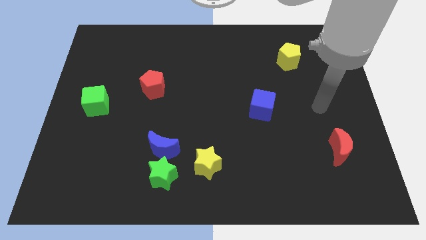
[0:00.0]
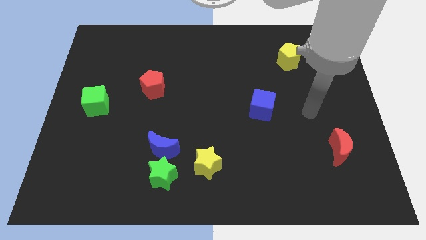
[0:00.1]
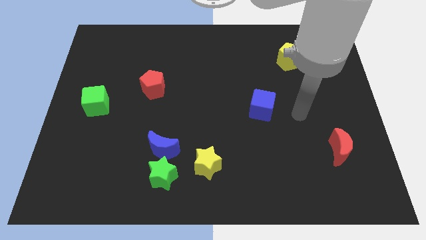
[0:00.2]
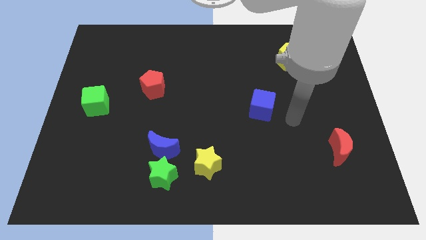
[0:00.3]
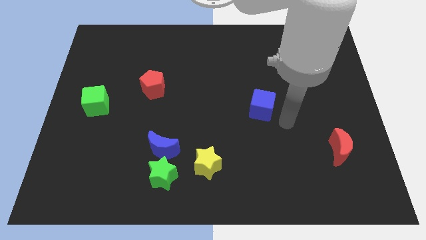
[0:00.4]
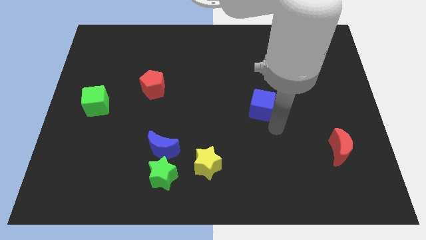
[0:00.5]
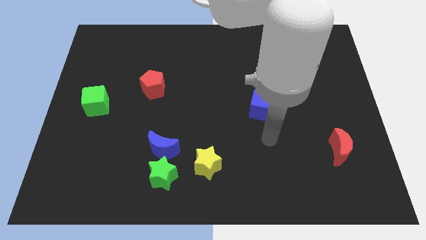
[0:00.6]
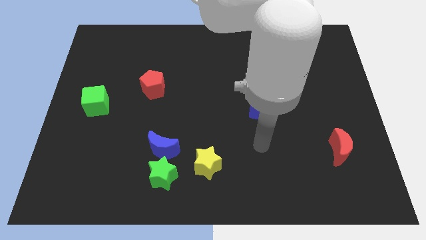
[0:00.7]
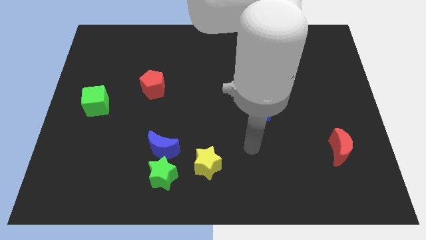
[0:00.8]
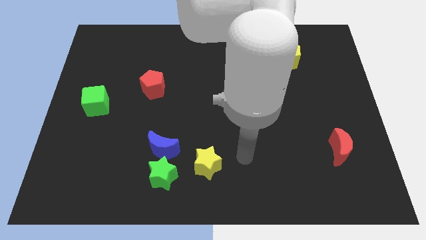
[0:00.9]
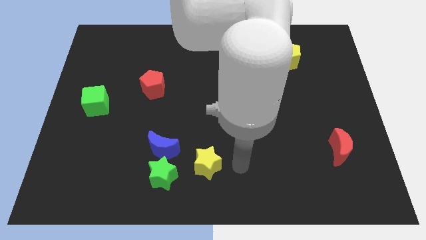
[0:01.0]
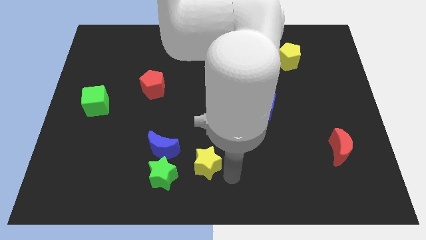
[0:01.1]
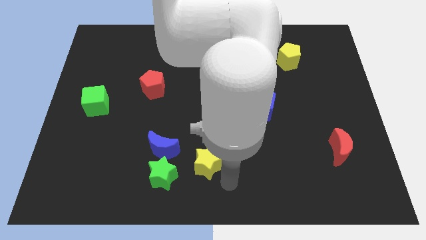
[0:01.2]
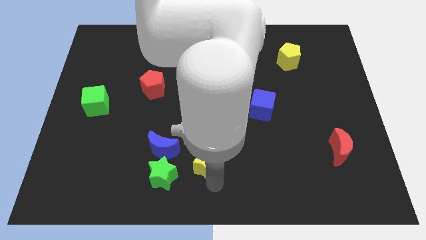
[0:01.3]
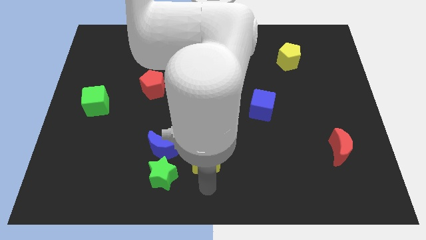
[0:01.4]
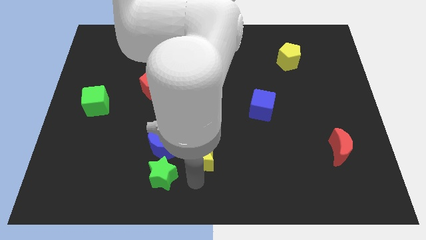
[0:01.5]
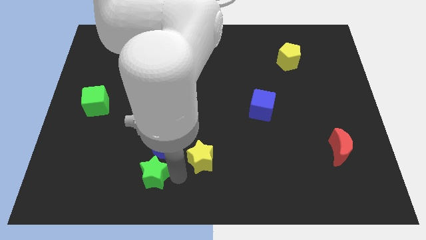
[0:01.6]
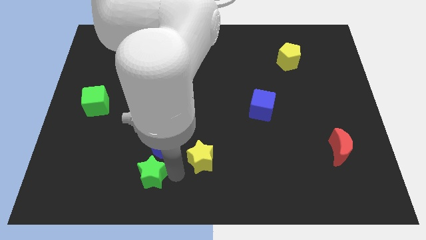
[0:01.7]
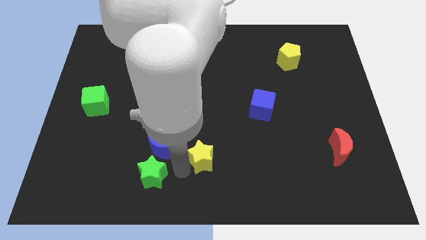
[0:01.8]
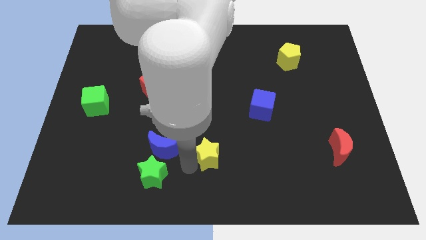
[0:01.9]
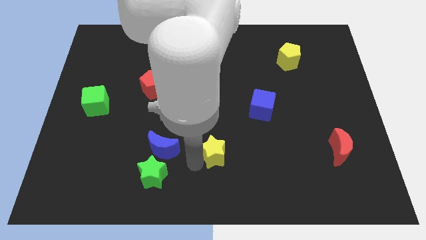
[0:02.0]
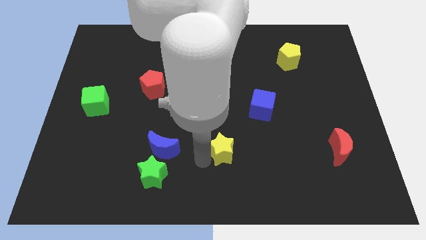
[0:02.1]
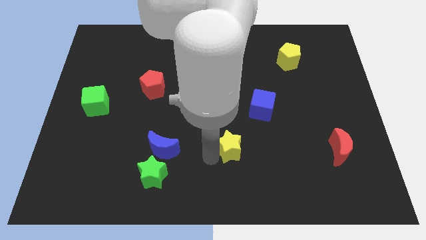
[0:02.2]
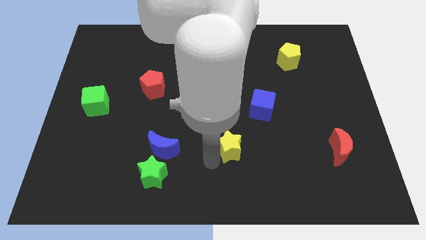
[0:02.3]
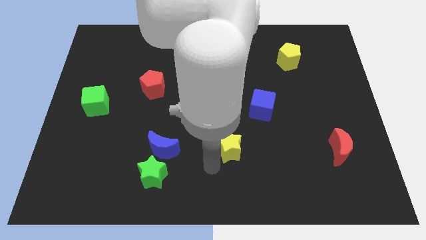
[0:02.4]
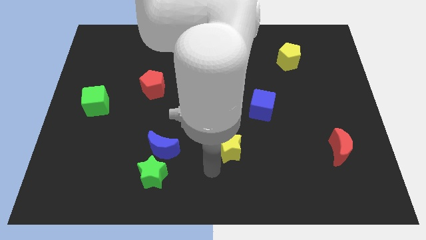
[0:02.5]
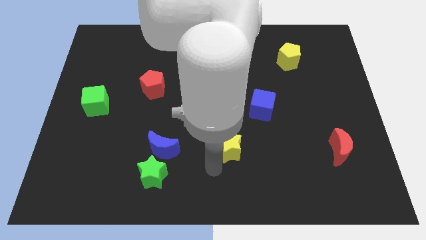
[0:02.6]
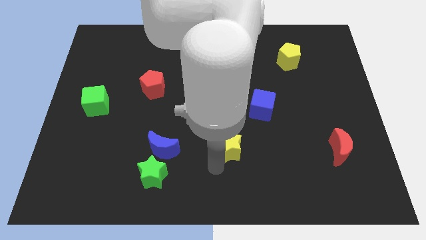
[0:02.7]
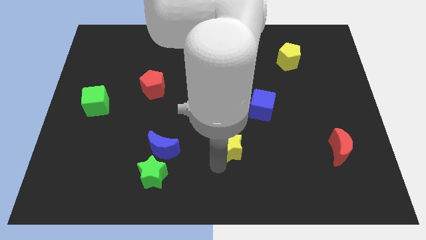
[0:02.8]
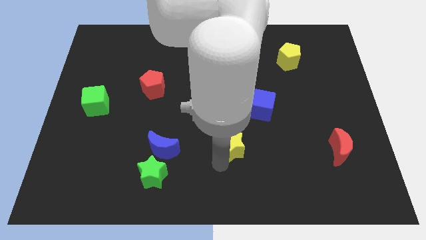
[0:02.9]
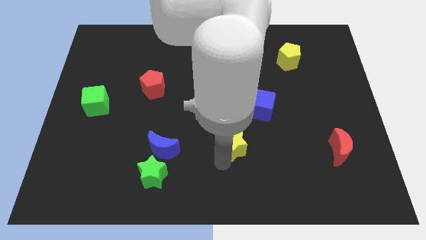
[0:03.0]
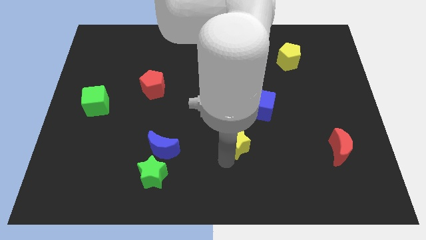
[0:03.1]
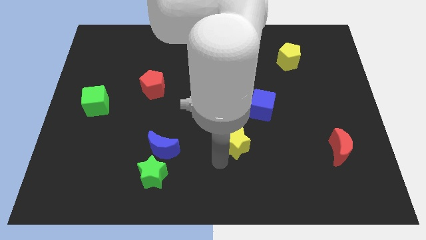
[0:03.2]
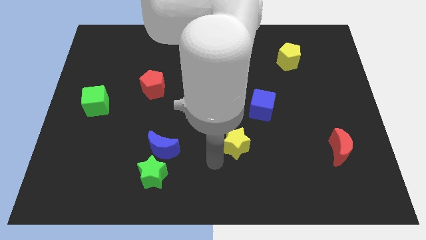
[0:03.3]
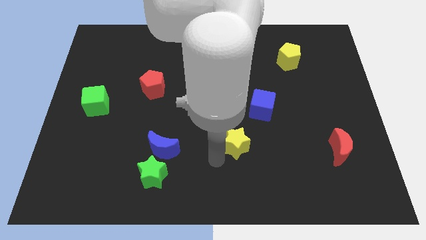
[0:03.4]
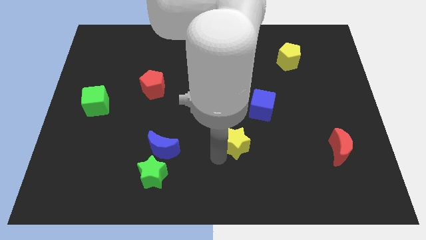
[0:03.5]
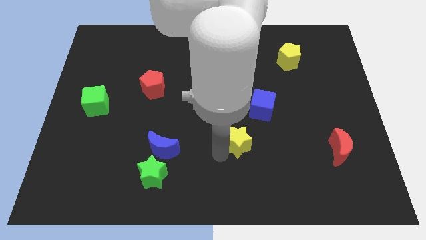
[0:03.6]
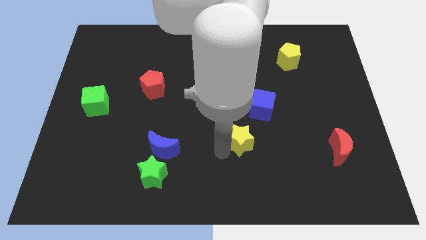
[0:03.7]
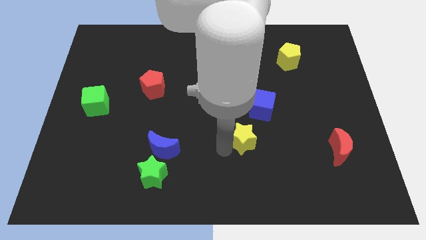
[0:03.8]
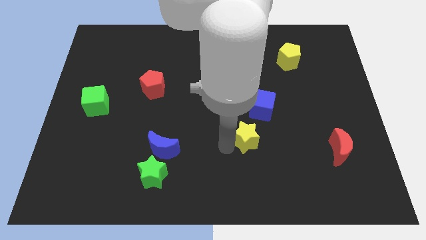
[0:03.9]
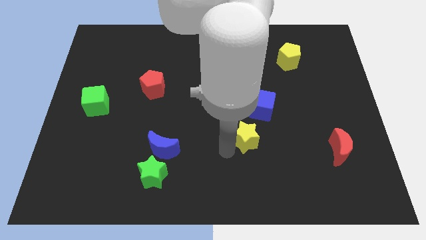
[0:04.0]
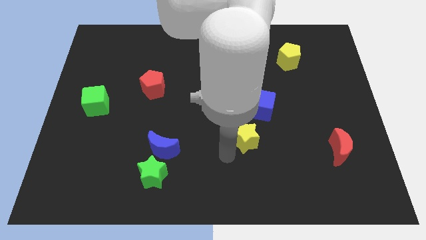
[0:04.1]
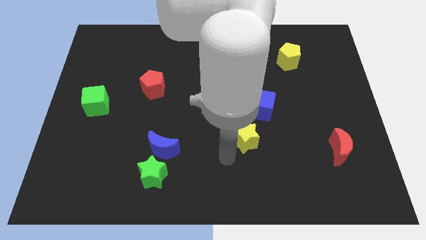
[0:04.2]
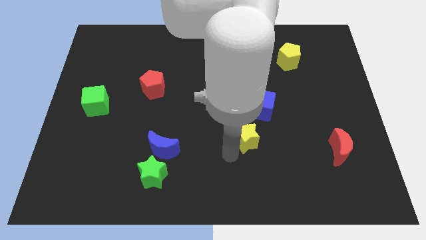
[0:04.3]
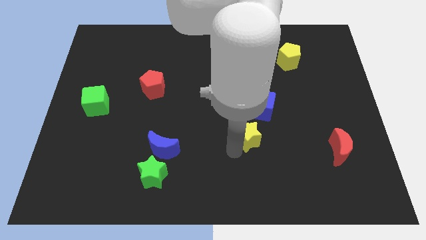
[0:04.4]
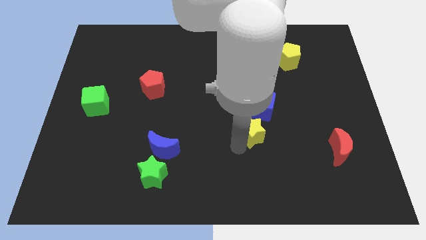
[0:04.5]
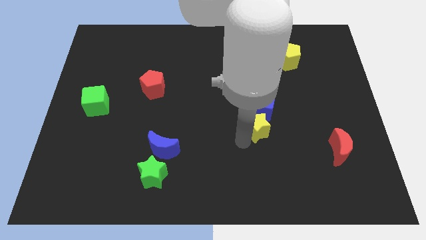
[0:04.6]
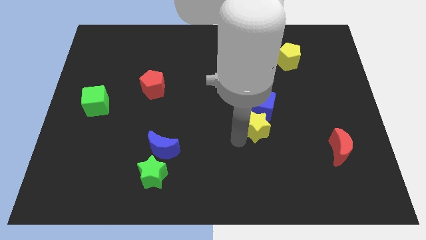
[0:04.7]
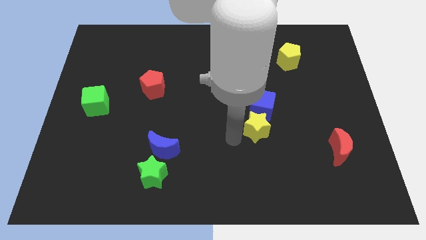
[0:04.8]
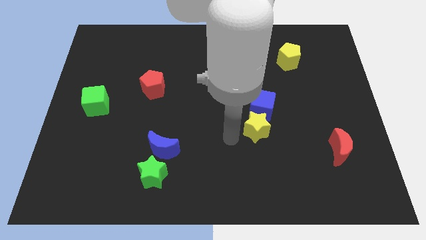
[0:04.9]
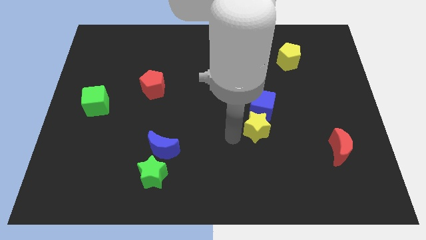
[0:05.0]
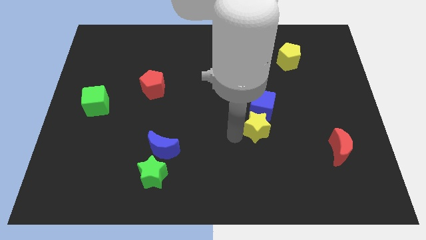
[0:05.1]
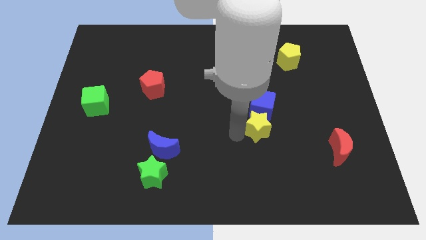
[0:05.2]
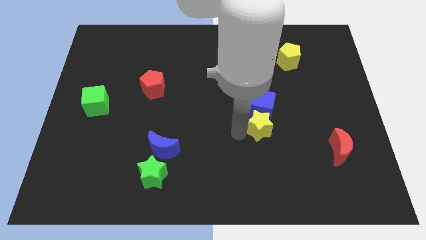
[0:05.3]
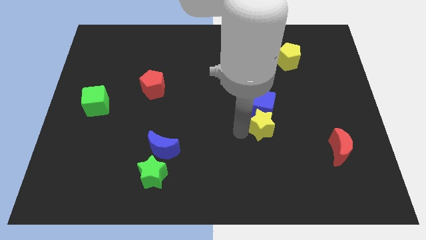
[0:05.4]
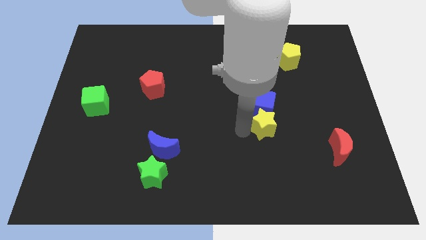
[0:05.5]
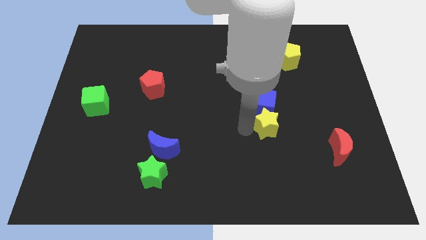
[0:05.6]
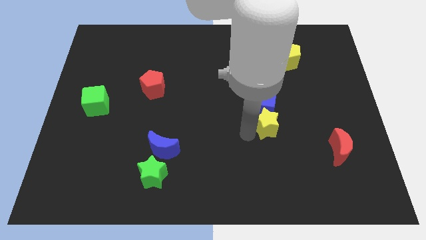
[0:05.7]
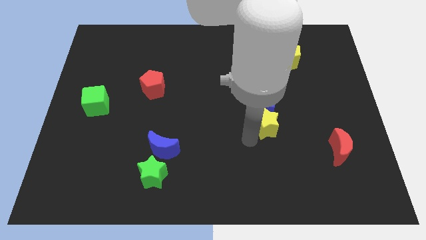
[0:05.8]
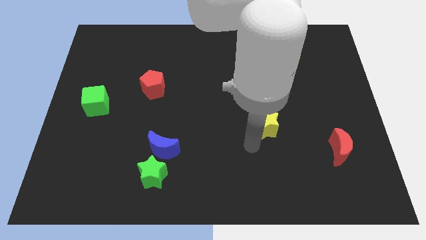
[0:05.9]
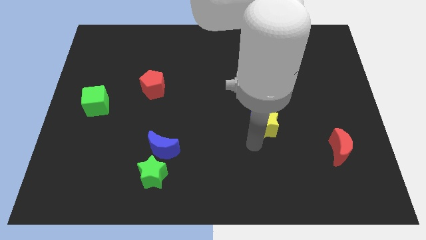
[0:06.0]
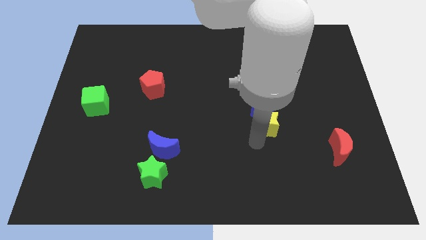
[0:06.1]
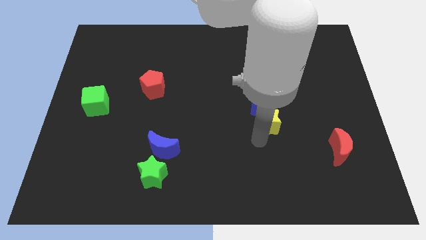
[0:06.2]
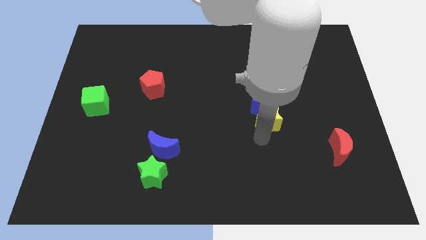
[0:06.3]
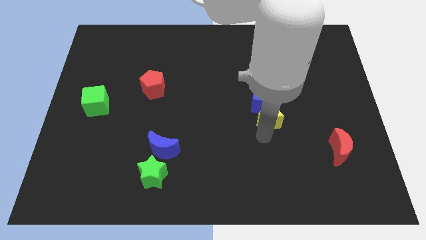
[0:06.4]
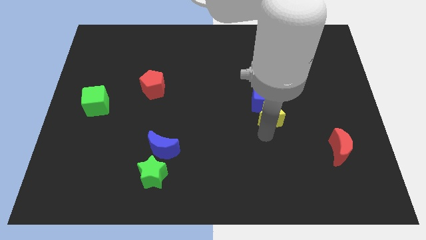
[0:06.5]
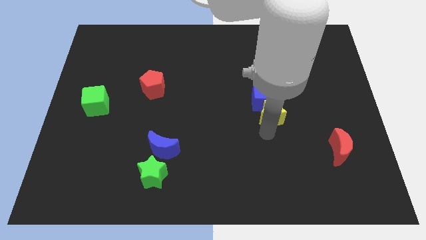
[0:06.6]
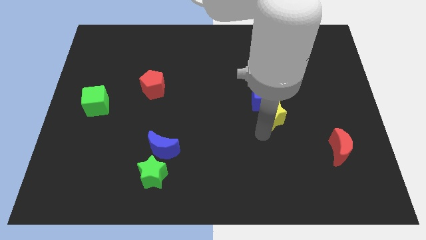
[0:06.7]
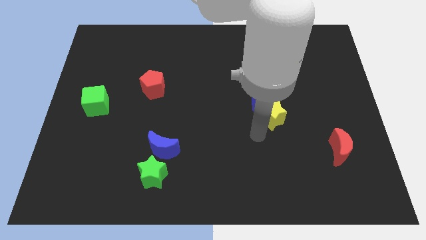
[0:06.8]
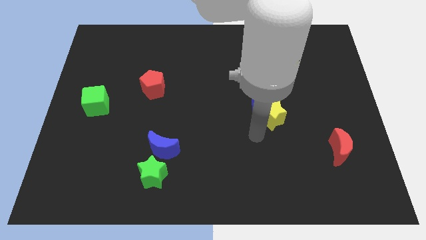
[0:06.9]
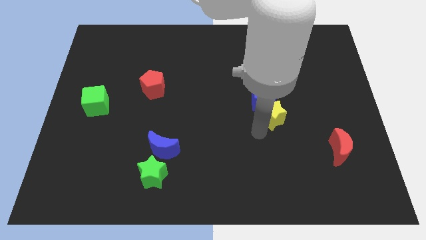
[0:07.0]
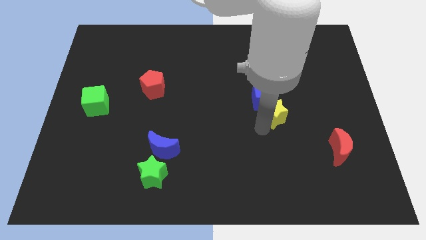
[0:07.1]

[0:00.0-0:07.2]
move the yellow star upwards and right diagonally

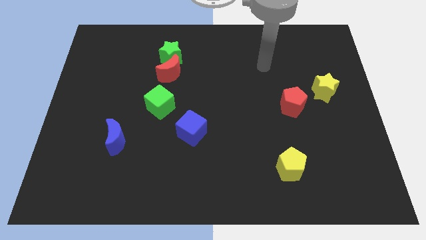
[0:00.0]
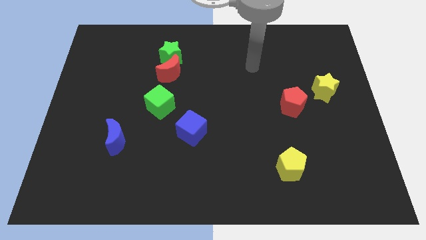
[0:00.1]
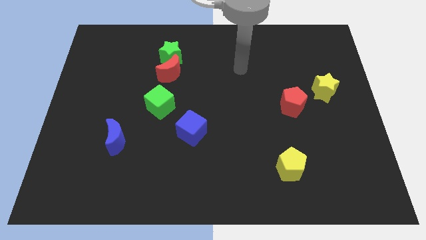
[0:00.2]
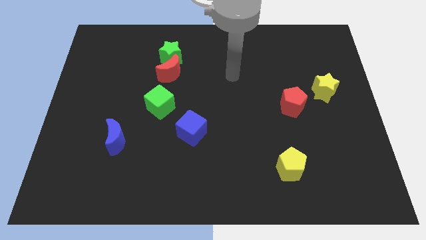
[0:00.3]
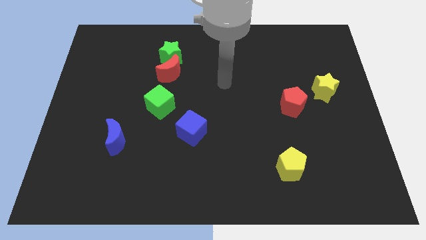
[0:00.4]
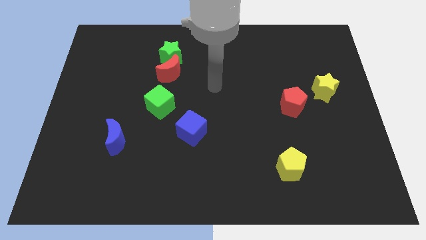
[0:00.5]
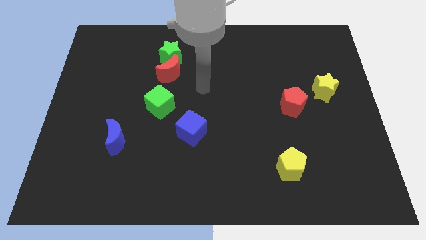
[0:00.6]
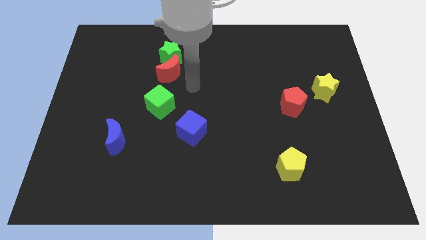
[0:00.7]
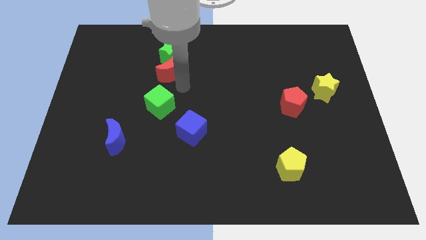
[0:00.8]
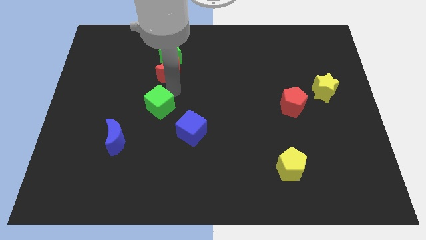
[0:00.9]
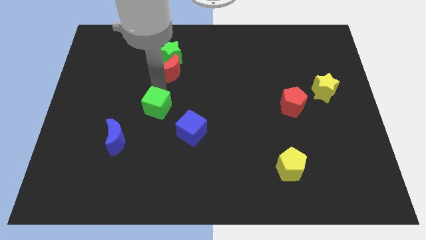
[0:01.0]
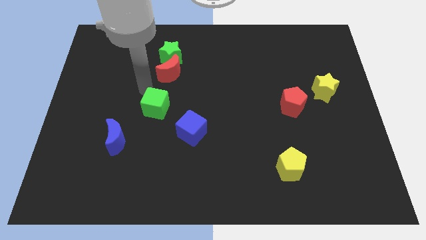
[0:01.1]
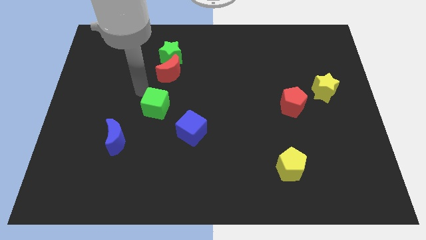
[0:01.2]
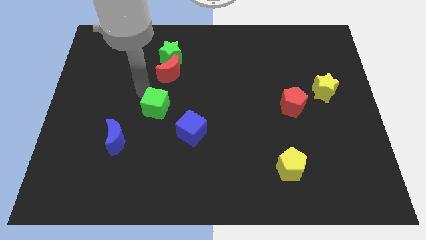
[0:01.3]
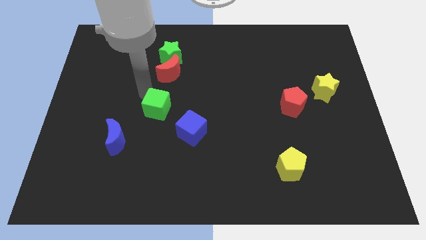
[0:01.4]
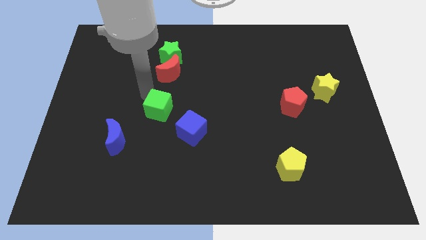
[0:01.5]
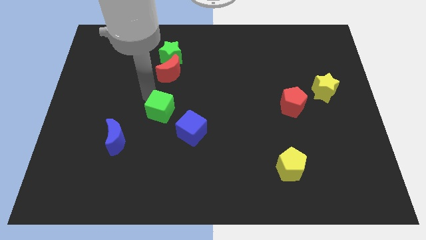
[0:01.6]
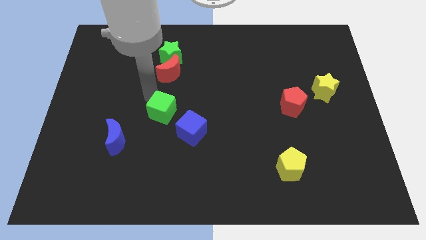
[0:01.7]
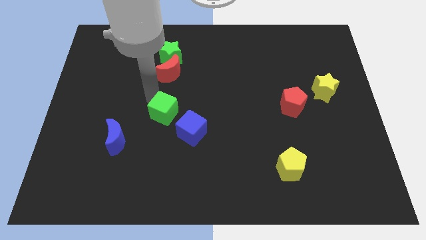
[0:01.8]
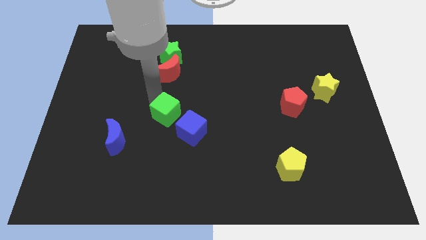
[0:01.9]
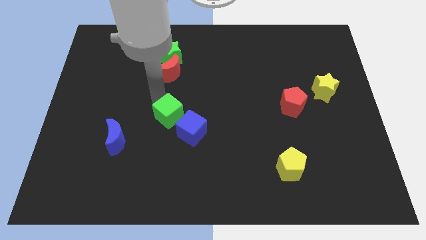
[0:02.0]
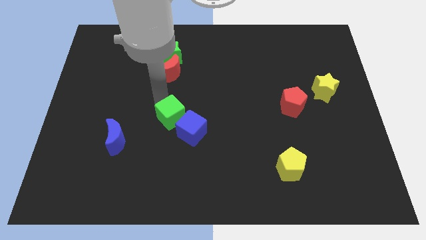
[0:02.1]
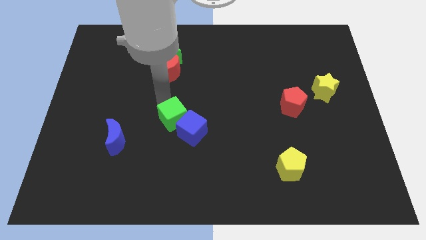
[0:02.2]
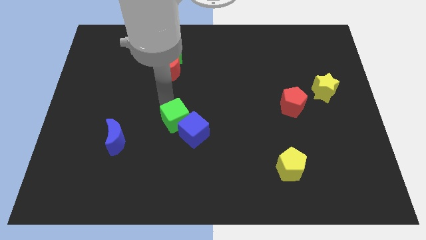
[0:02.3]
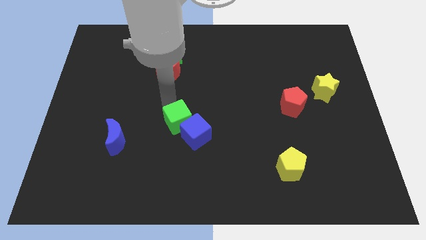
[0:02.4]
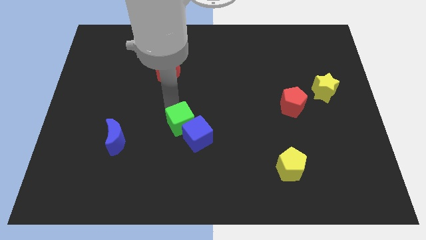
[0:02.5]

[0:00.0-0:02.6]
slide the green cube somewhat downwards and to the right
